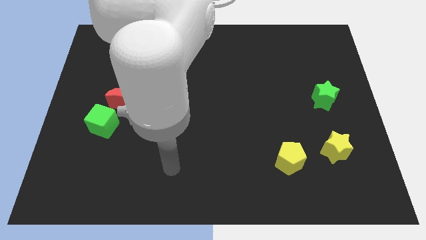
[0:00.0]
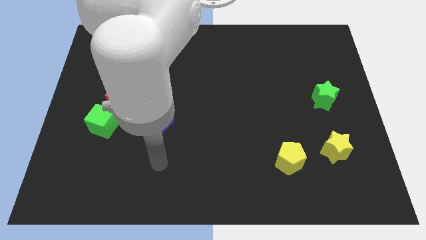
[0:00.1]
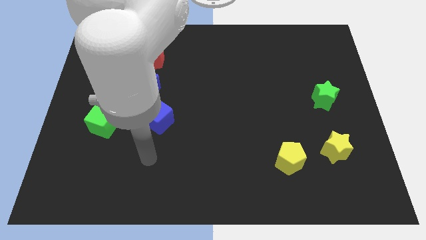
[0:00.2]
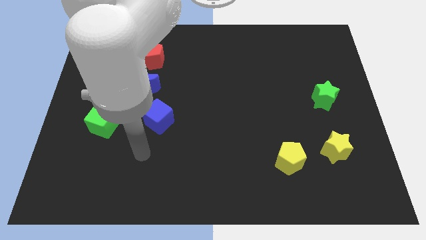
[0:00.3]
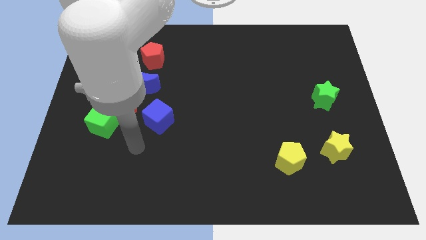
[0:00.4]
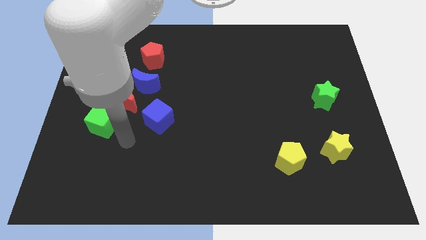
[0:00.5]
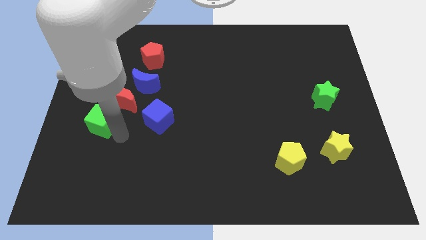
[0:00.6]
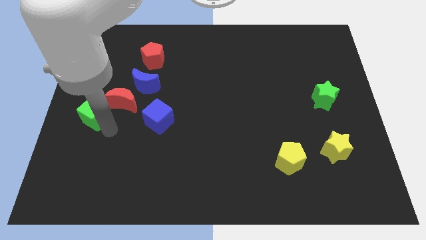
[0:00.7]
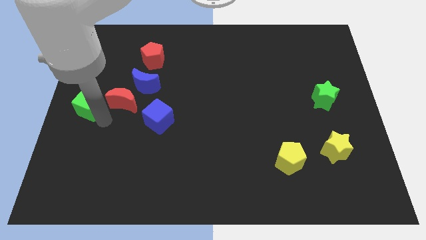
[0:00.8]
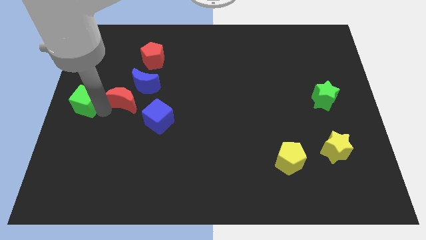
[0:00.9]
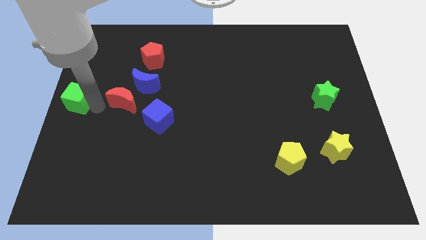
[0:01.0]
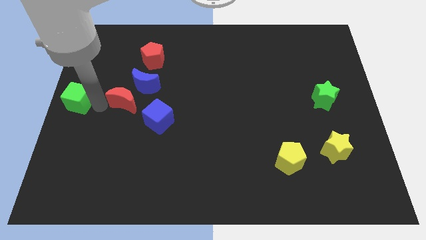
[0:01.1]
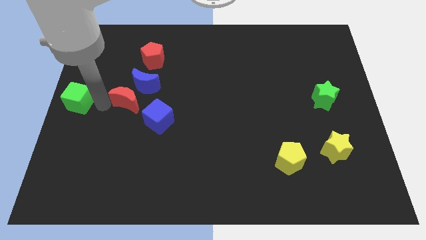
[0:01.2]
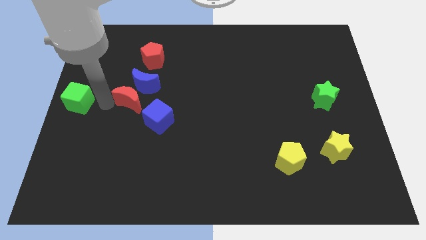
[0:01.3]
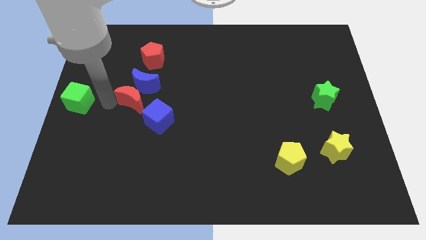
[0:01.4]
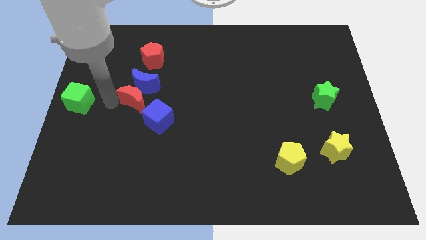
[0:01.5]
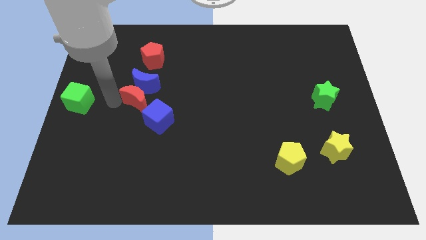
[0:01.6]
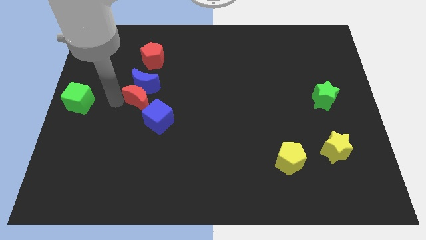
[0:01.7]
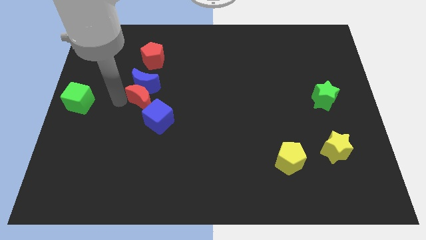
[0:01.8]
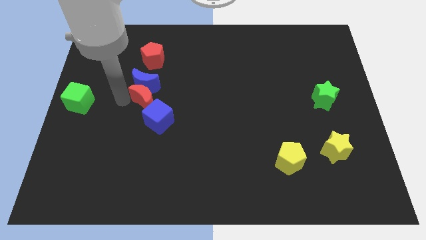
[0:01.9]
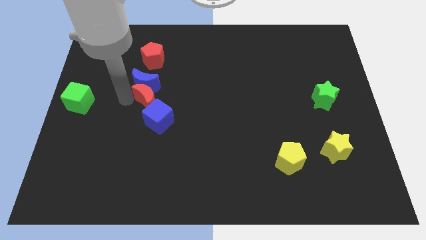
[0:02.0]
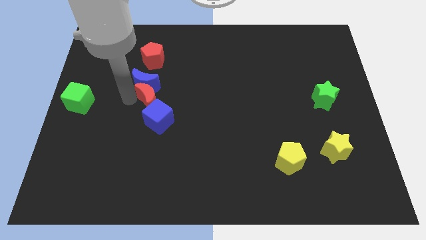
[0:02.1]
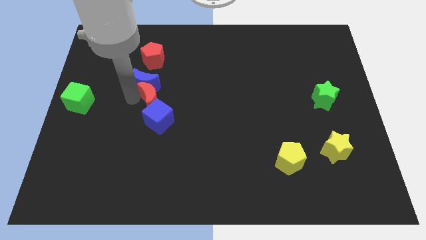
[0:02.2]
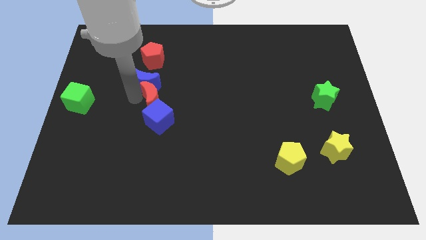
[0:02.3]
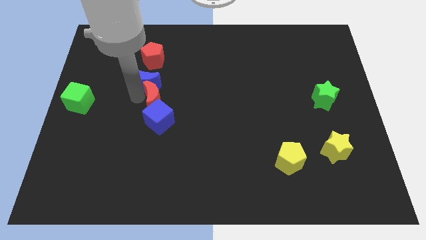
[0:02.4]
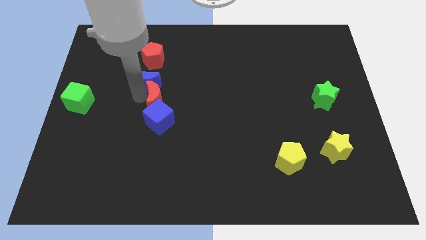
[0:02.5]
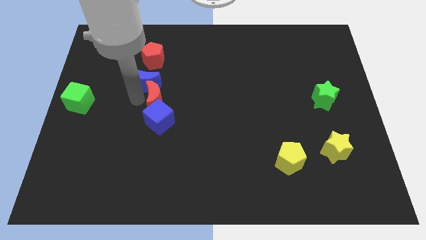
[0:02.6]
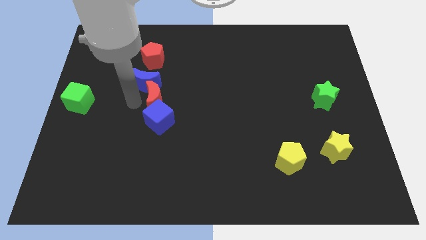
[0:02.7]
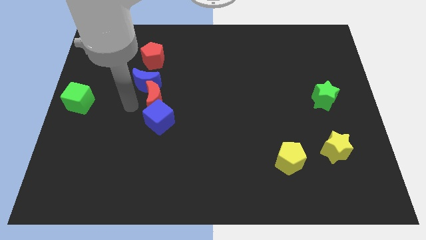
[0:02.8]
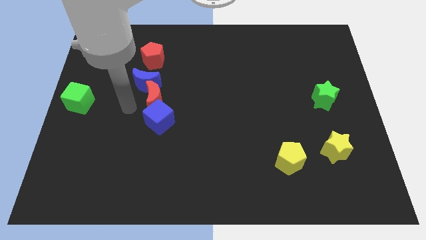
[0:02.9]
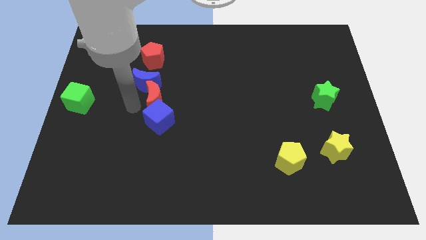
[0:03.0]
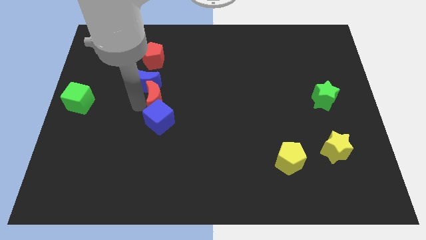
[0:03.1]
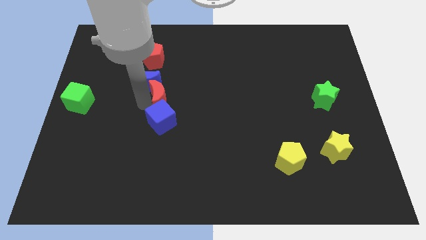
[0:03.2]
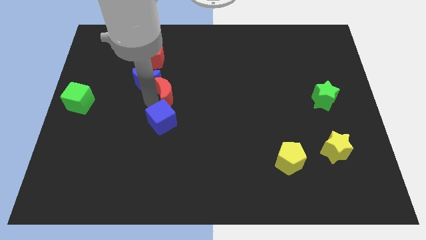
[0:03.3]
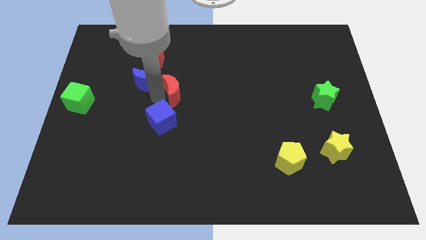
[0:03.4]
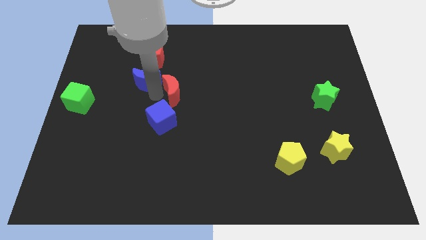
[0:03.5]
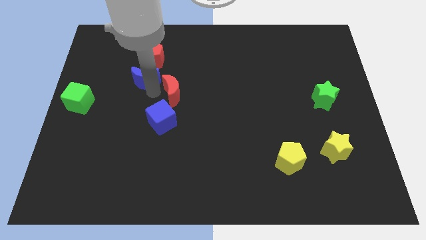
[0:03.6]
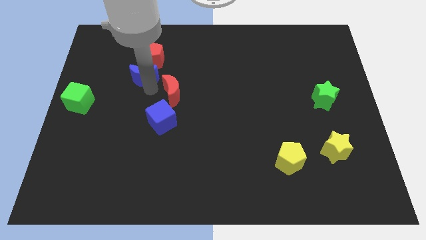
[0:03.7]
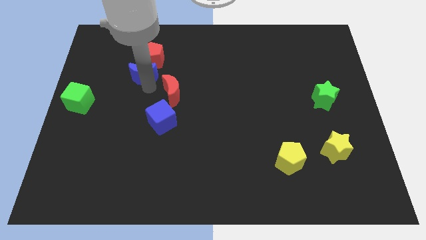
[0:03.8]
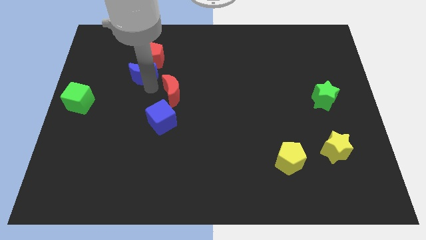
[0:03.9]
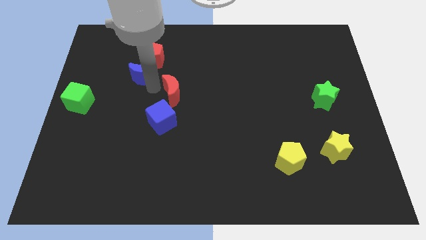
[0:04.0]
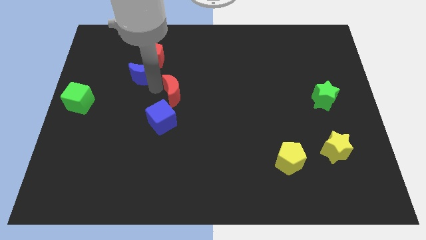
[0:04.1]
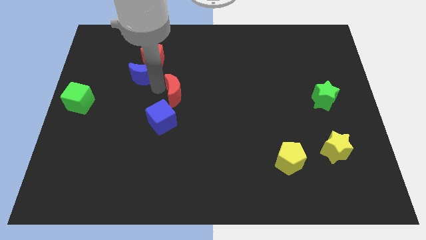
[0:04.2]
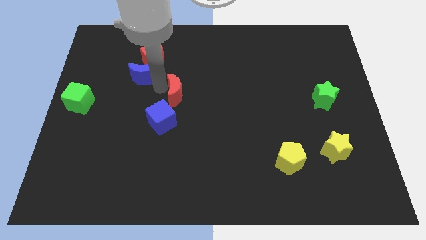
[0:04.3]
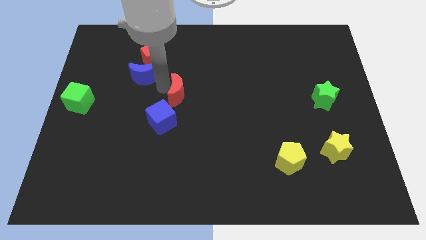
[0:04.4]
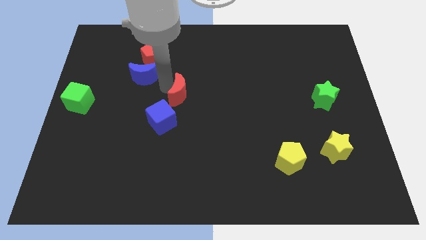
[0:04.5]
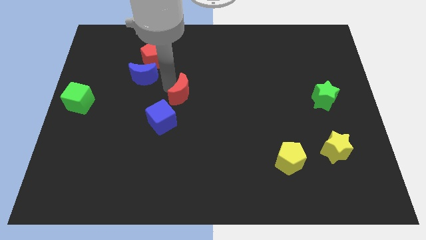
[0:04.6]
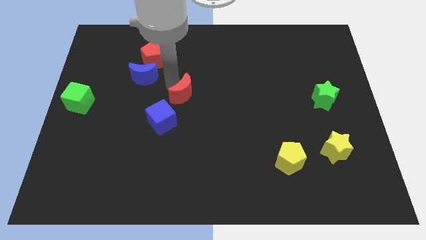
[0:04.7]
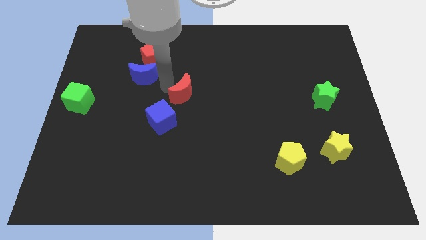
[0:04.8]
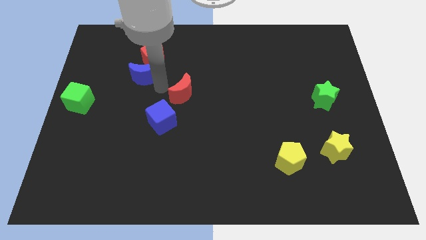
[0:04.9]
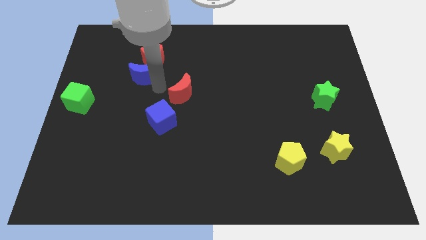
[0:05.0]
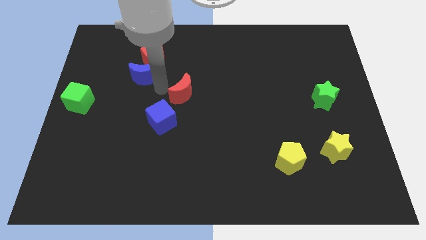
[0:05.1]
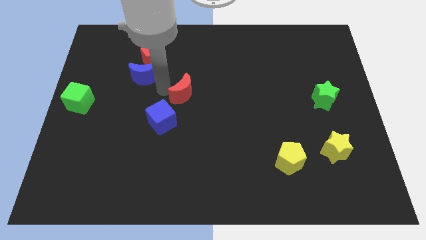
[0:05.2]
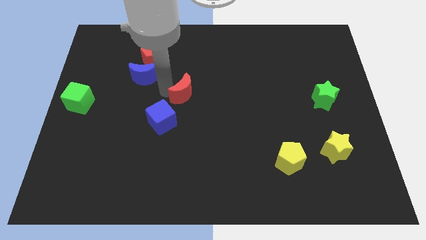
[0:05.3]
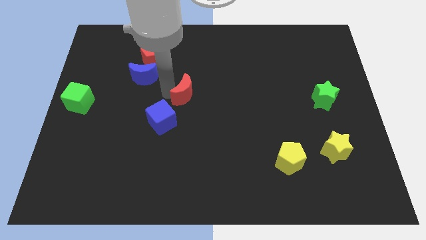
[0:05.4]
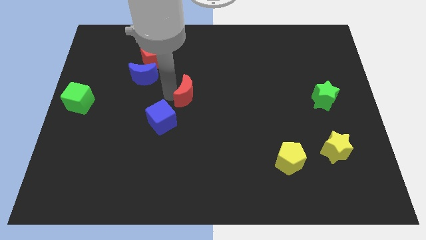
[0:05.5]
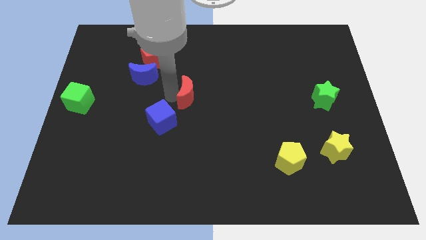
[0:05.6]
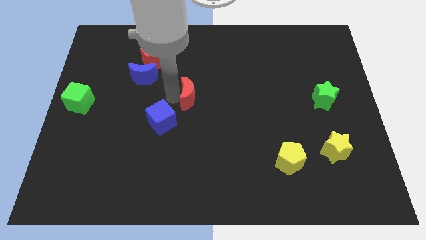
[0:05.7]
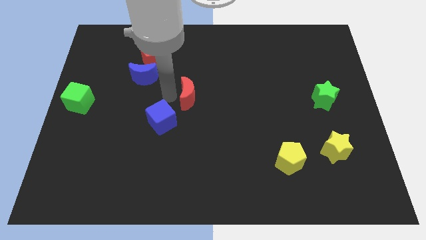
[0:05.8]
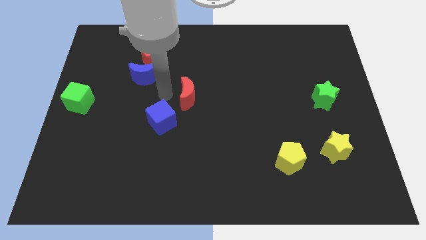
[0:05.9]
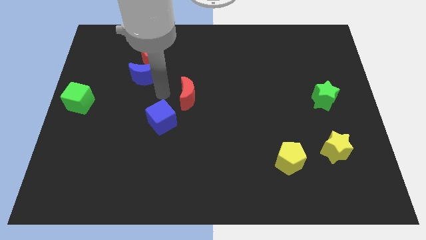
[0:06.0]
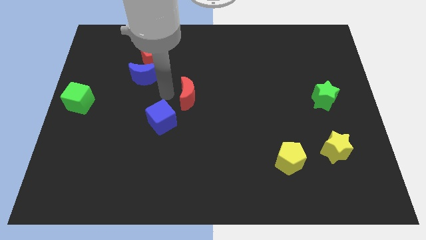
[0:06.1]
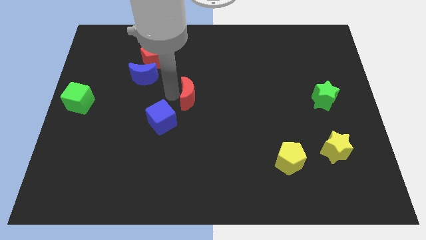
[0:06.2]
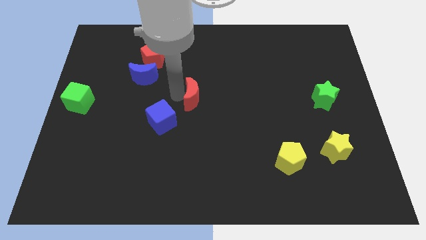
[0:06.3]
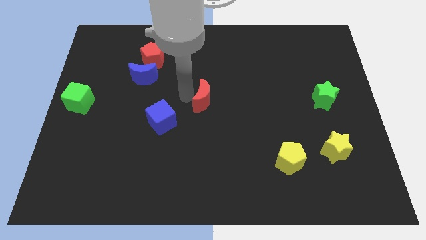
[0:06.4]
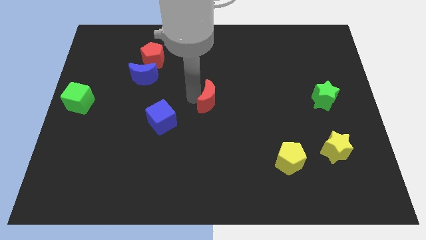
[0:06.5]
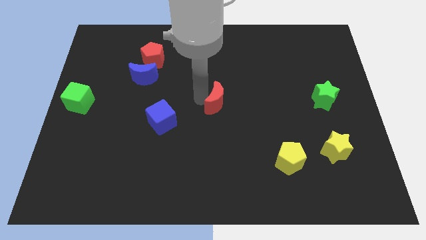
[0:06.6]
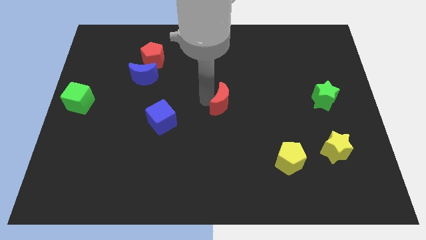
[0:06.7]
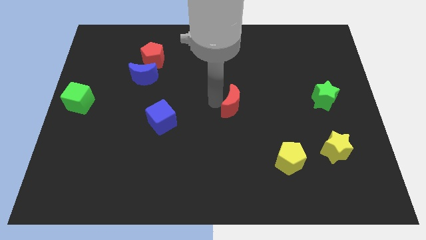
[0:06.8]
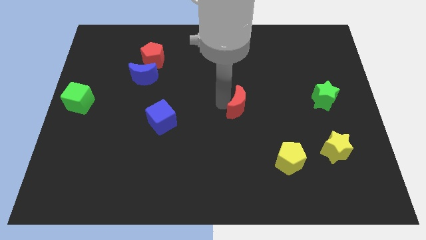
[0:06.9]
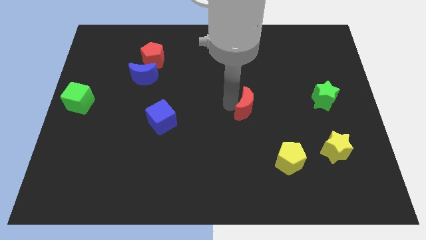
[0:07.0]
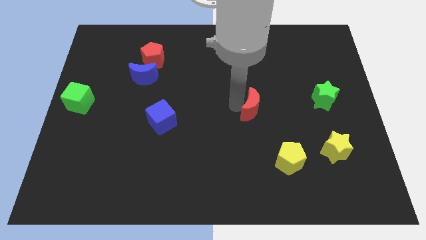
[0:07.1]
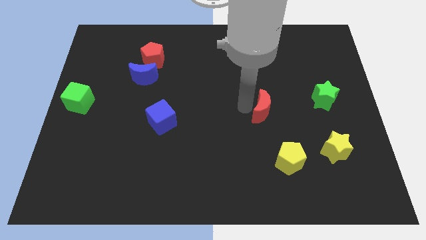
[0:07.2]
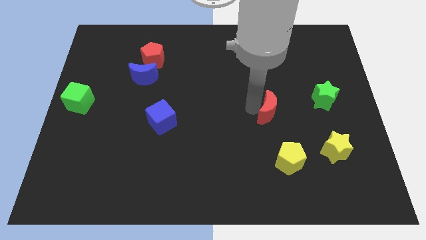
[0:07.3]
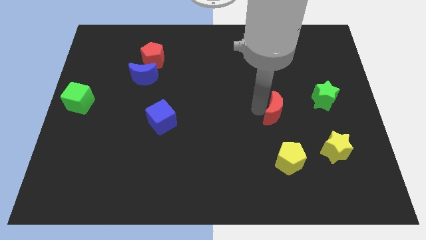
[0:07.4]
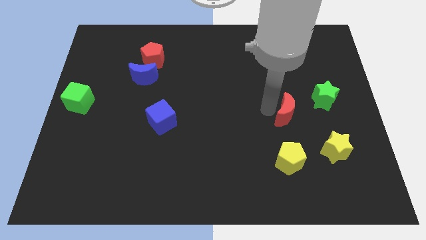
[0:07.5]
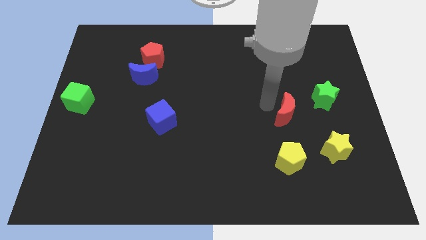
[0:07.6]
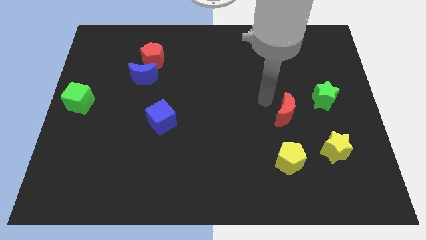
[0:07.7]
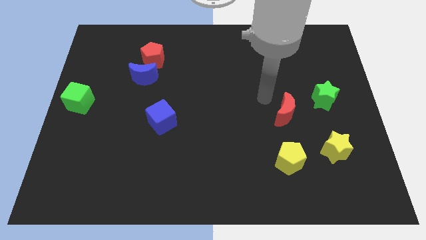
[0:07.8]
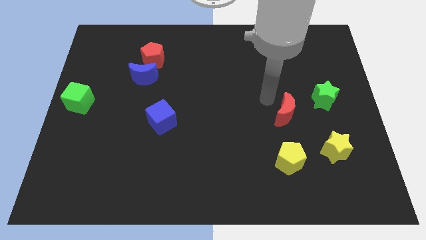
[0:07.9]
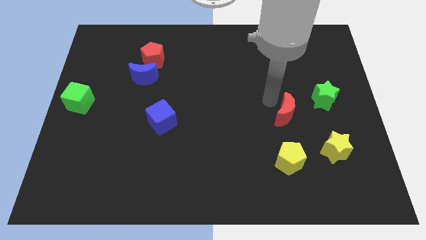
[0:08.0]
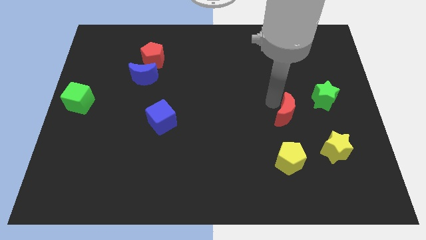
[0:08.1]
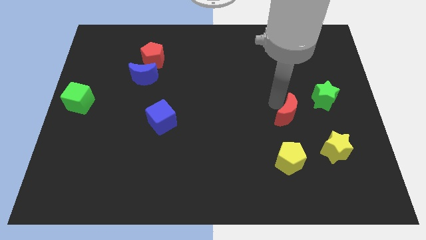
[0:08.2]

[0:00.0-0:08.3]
slide the red moon to the top left of the yellow star

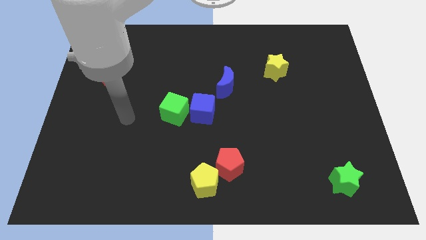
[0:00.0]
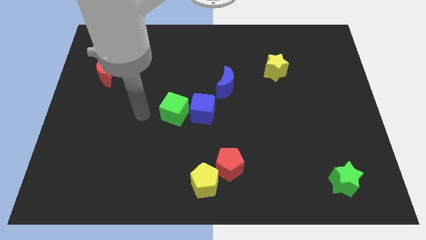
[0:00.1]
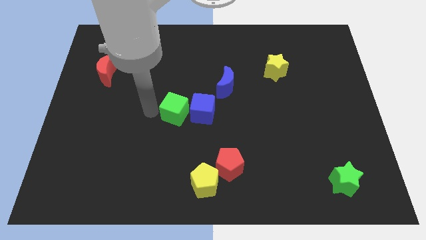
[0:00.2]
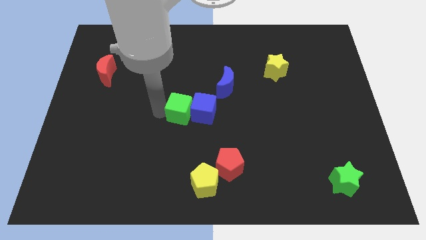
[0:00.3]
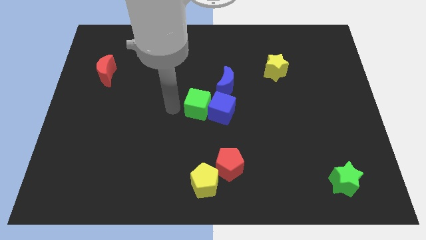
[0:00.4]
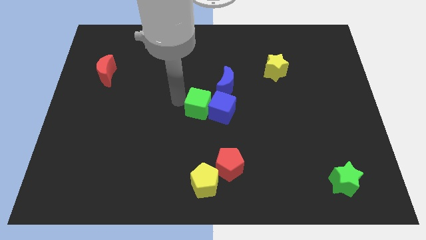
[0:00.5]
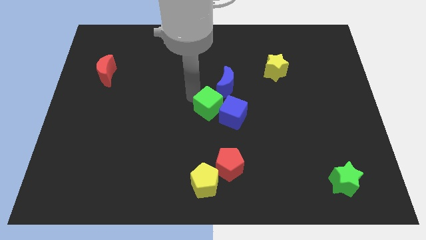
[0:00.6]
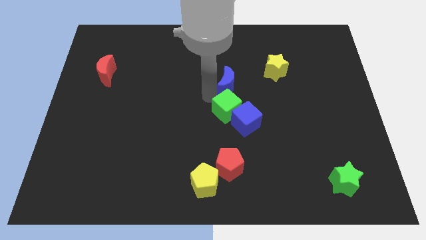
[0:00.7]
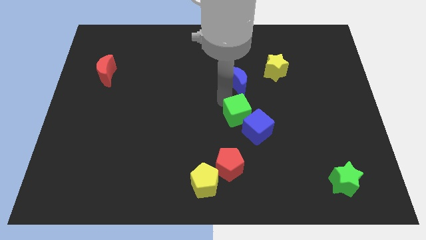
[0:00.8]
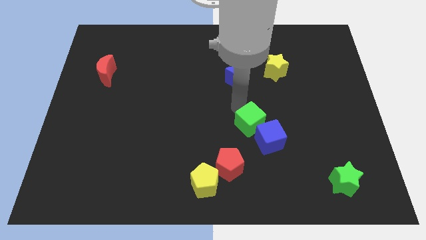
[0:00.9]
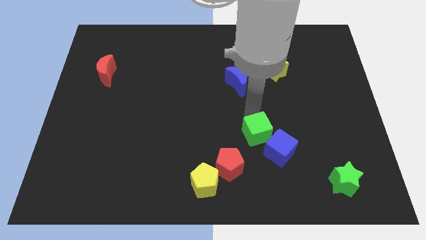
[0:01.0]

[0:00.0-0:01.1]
push the blue cube to the right of the red pentagon
